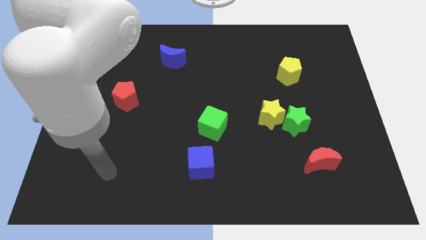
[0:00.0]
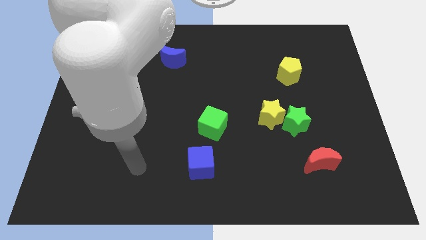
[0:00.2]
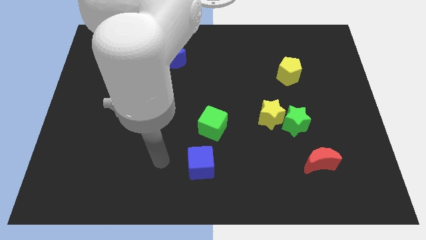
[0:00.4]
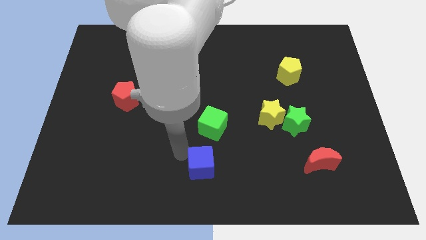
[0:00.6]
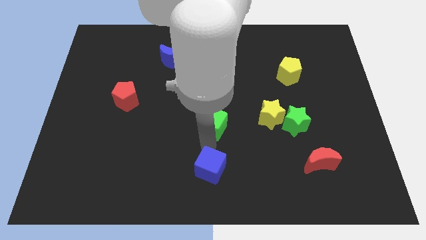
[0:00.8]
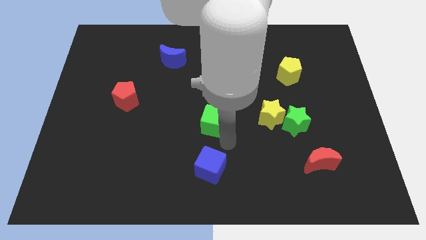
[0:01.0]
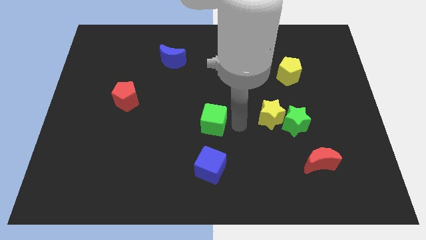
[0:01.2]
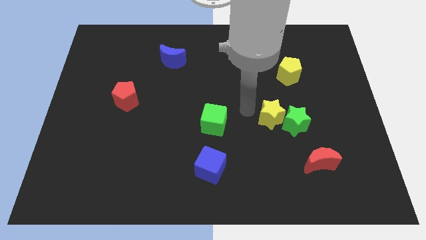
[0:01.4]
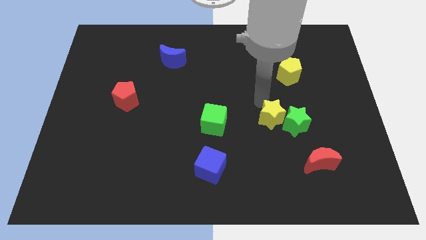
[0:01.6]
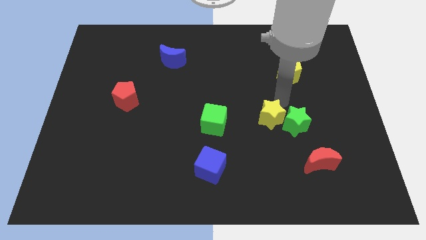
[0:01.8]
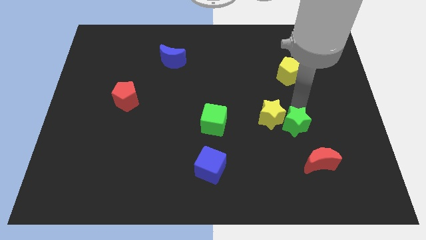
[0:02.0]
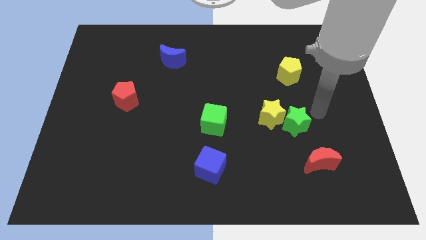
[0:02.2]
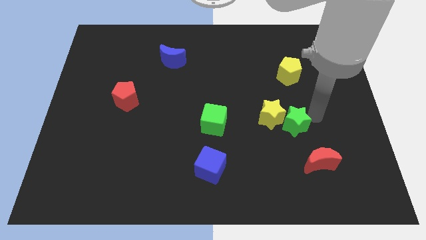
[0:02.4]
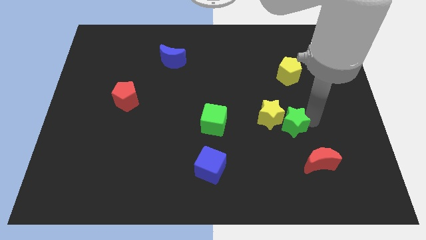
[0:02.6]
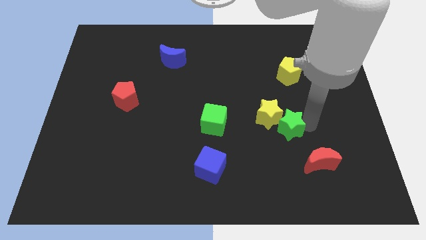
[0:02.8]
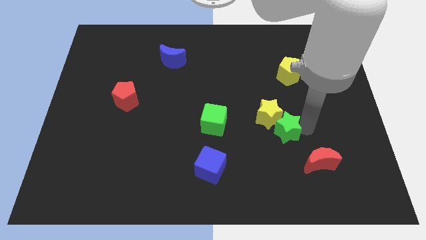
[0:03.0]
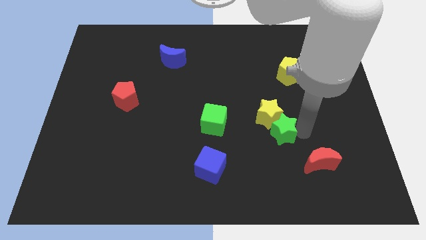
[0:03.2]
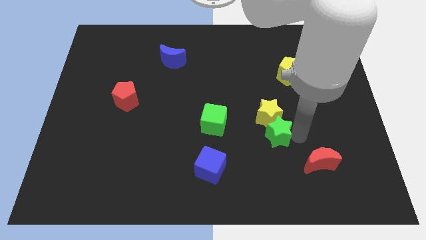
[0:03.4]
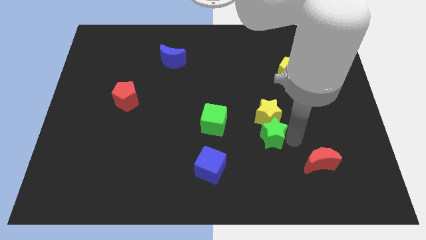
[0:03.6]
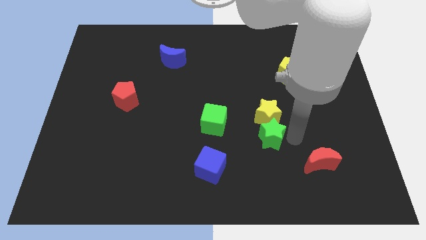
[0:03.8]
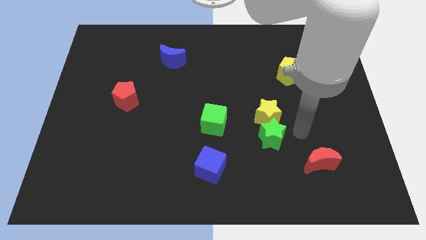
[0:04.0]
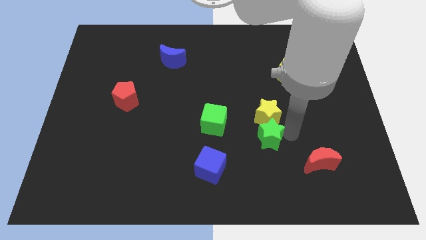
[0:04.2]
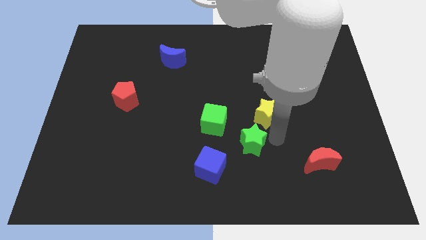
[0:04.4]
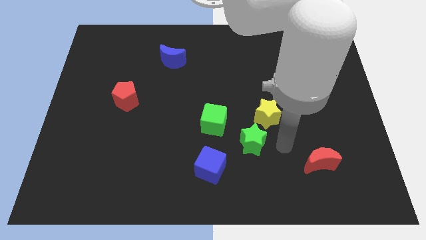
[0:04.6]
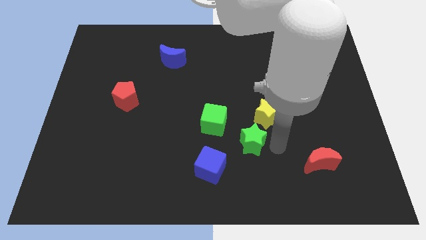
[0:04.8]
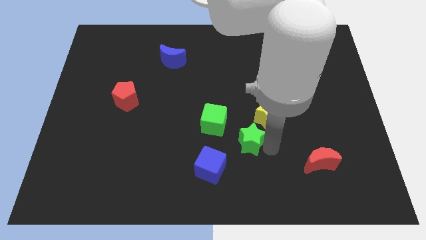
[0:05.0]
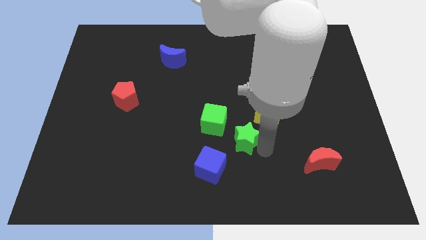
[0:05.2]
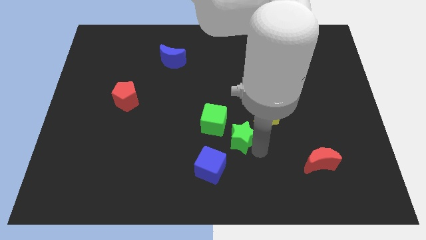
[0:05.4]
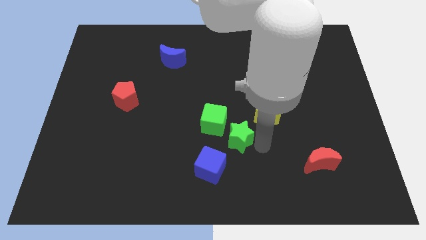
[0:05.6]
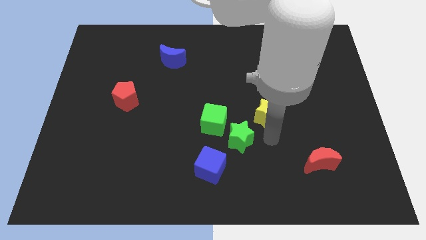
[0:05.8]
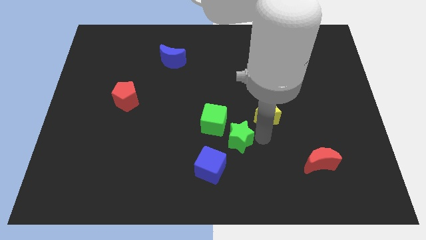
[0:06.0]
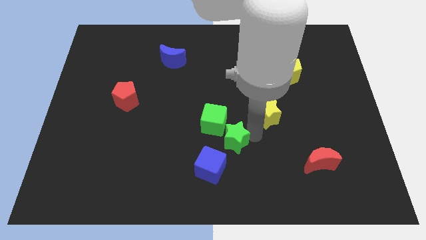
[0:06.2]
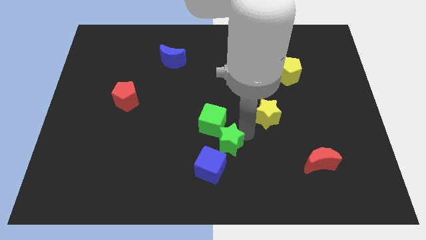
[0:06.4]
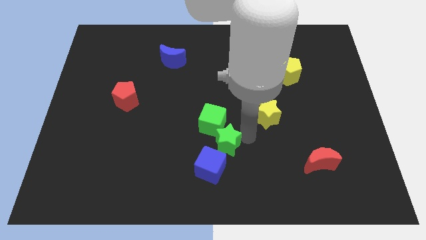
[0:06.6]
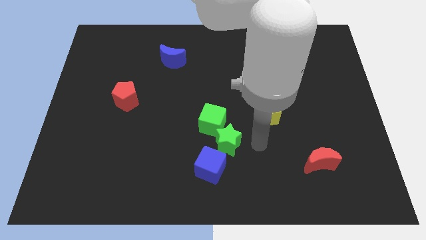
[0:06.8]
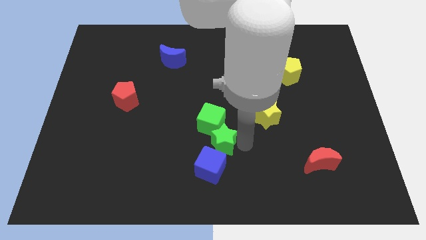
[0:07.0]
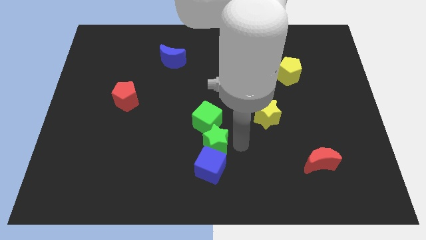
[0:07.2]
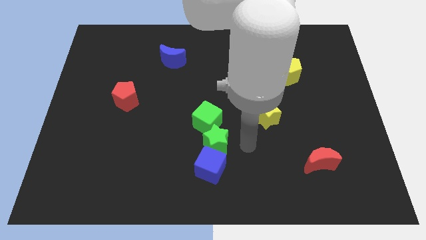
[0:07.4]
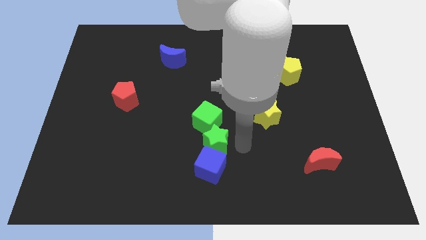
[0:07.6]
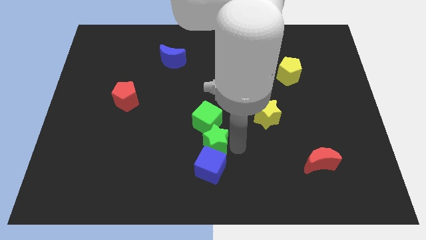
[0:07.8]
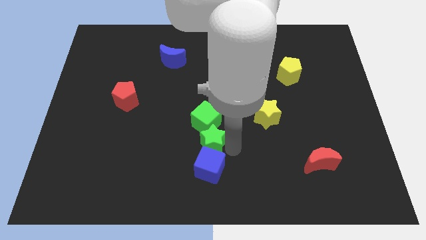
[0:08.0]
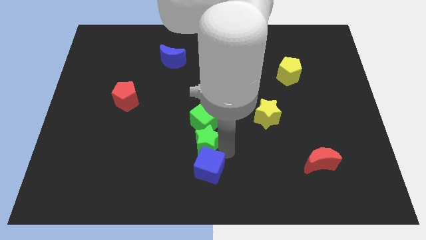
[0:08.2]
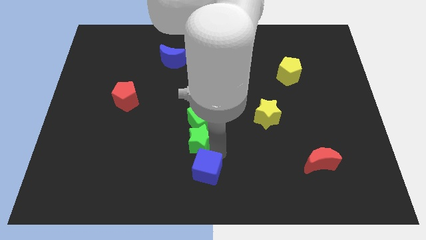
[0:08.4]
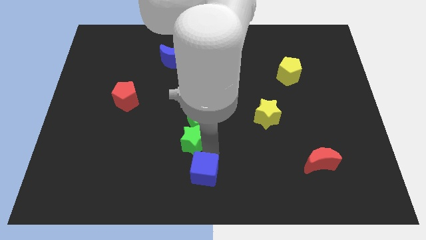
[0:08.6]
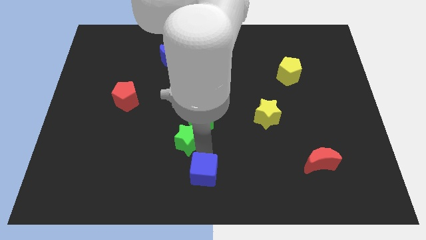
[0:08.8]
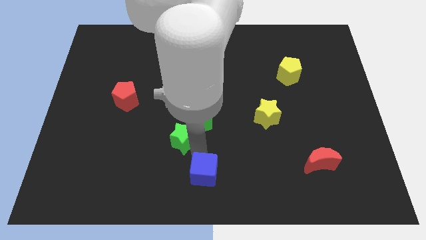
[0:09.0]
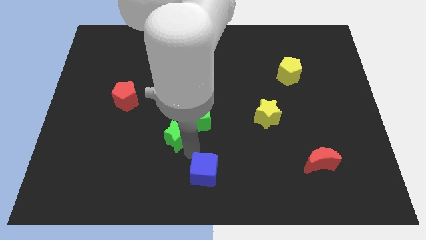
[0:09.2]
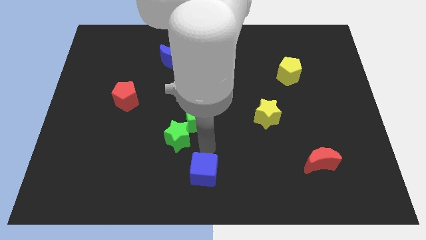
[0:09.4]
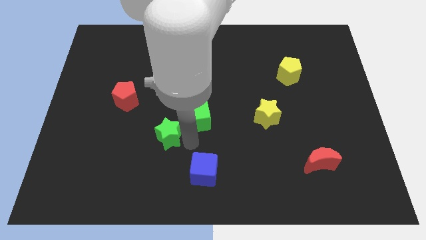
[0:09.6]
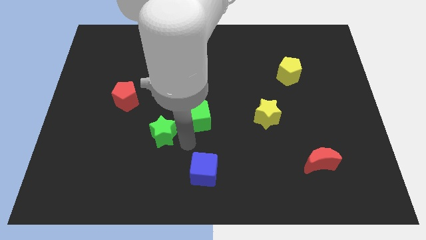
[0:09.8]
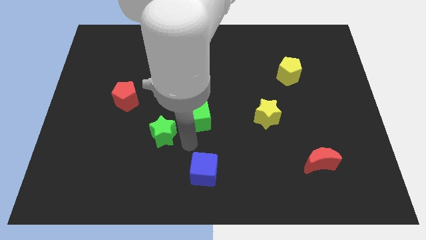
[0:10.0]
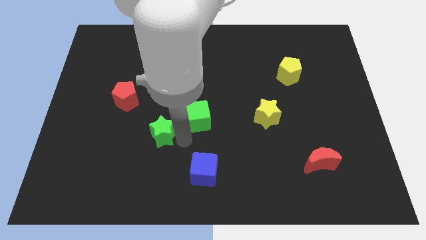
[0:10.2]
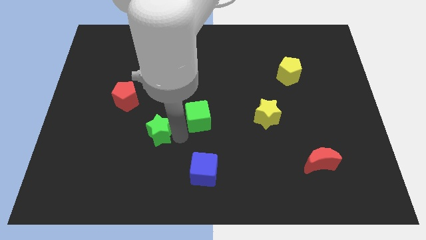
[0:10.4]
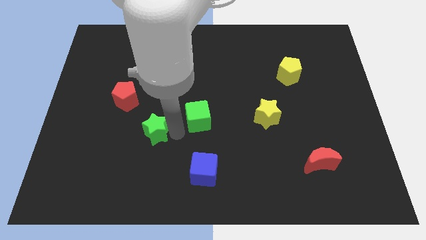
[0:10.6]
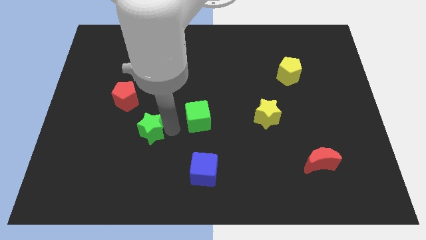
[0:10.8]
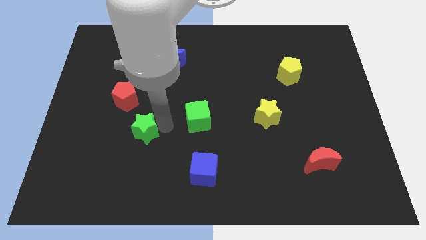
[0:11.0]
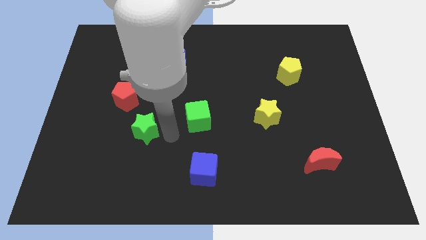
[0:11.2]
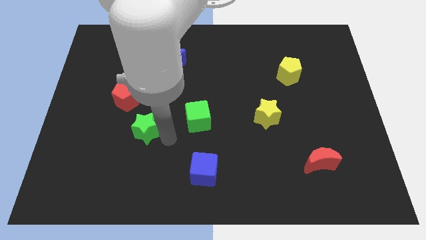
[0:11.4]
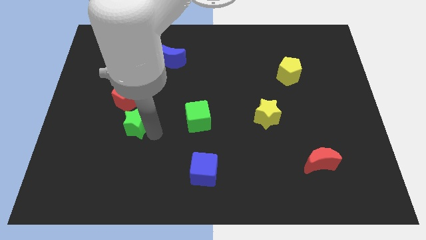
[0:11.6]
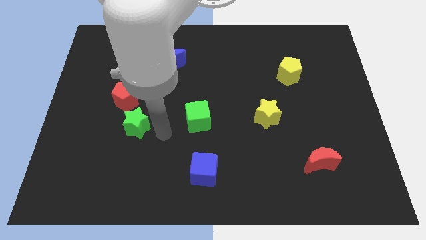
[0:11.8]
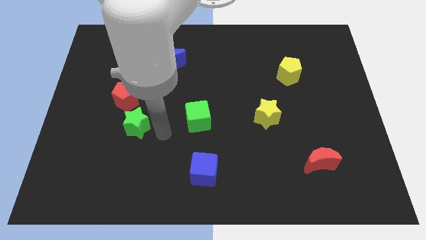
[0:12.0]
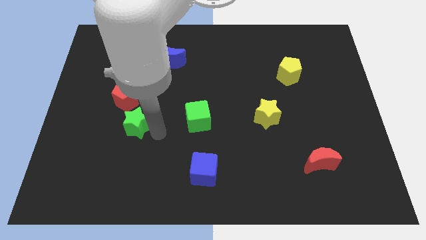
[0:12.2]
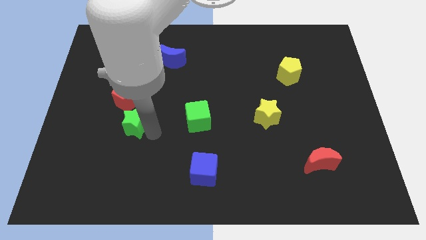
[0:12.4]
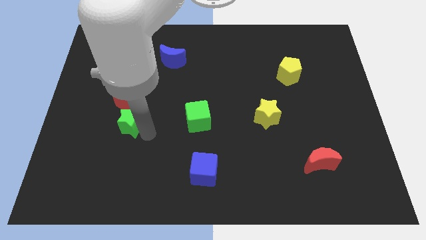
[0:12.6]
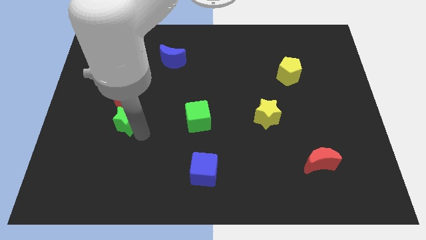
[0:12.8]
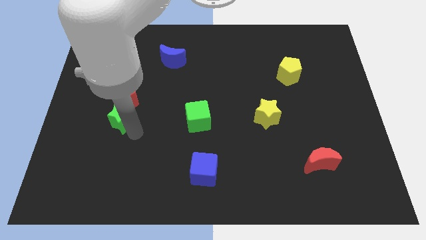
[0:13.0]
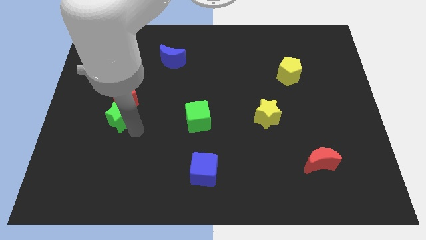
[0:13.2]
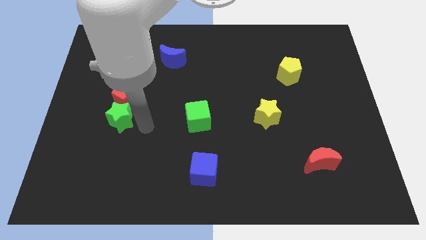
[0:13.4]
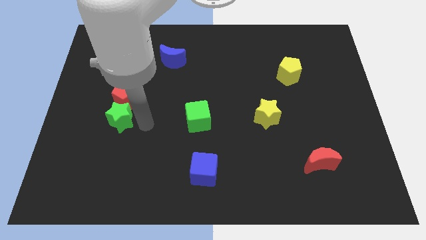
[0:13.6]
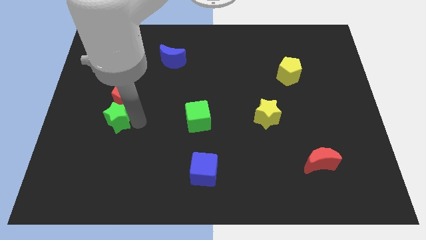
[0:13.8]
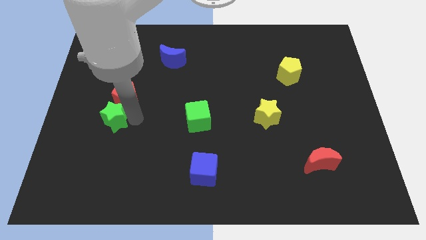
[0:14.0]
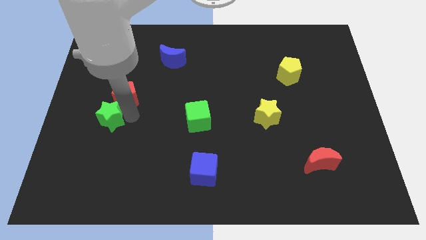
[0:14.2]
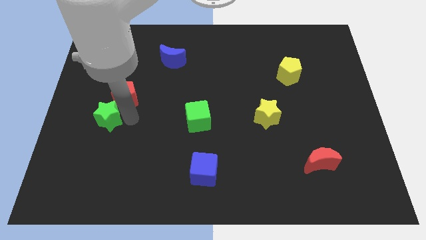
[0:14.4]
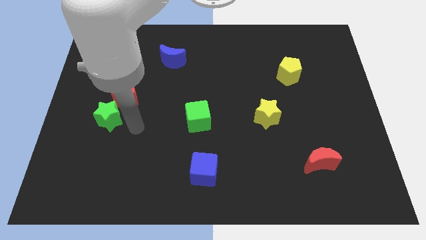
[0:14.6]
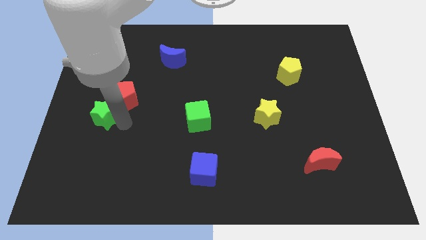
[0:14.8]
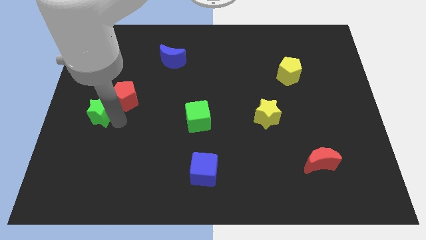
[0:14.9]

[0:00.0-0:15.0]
put the green star to the center left
